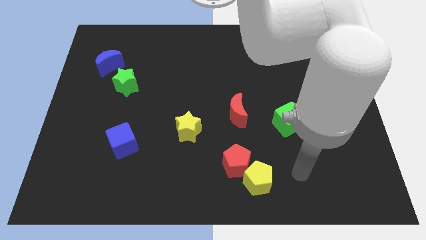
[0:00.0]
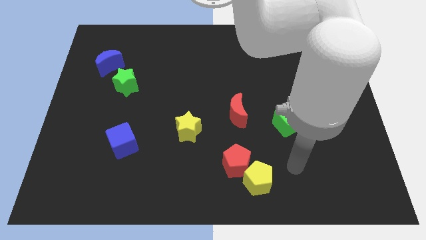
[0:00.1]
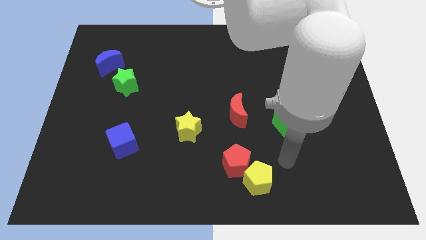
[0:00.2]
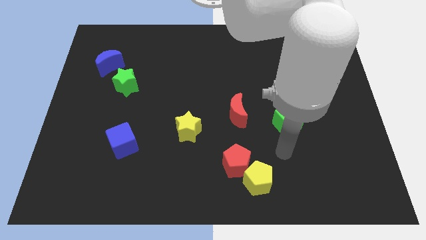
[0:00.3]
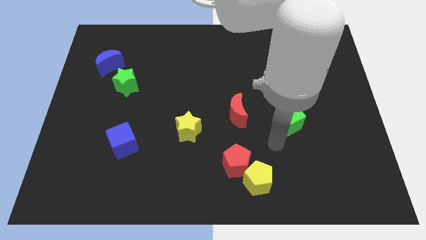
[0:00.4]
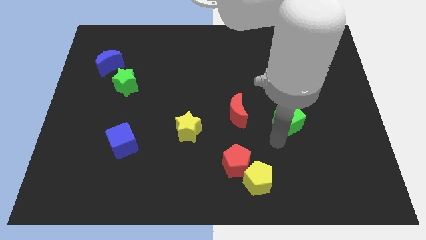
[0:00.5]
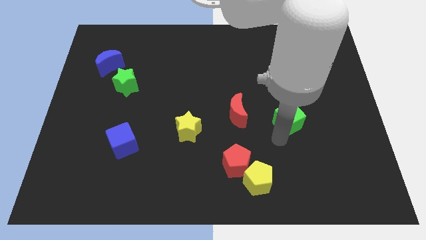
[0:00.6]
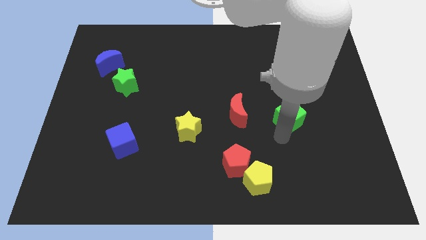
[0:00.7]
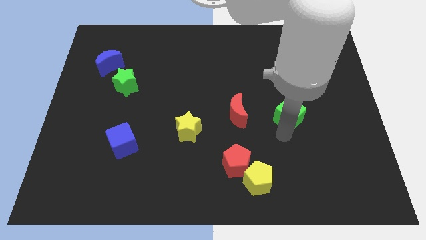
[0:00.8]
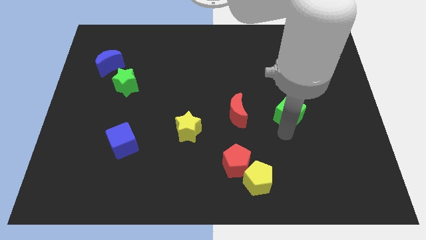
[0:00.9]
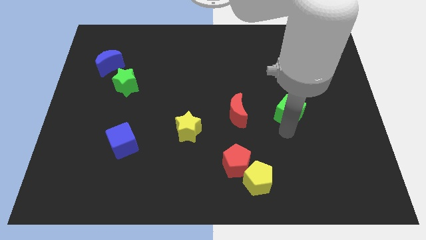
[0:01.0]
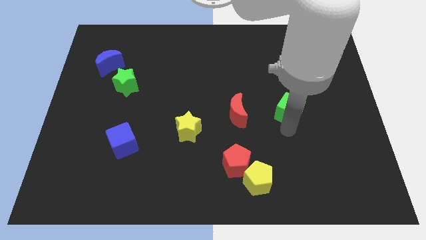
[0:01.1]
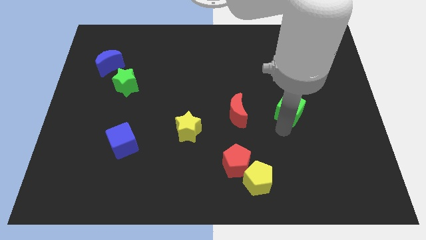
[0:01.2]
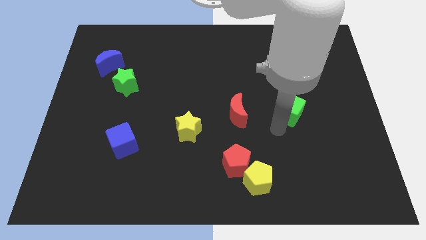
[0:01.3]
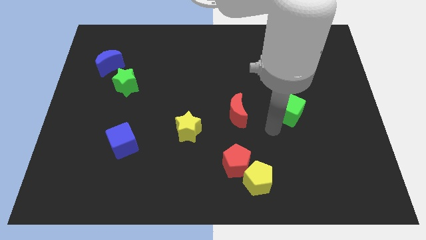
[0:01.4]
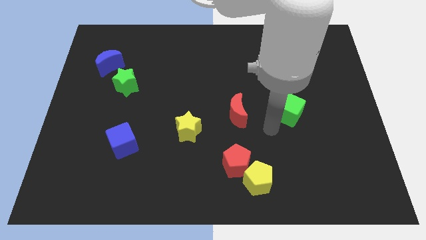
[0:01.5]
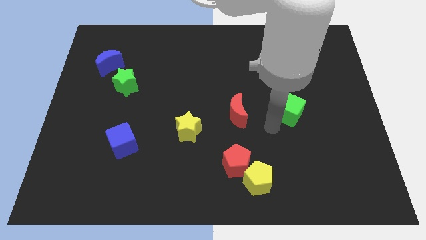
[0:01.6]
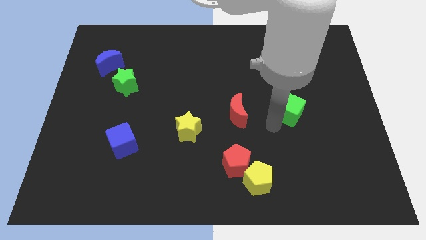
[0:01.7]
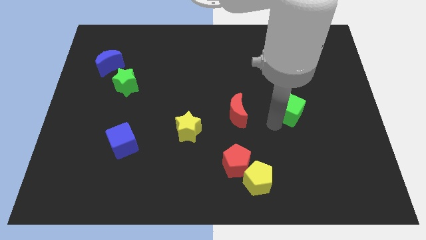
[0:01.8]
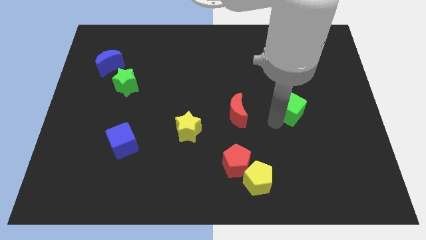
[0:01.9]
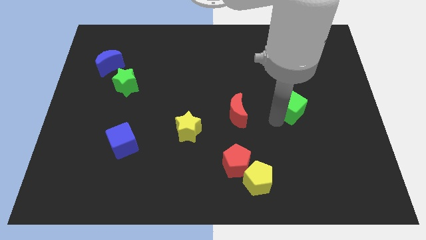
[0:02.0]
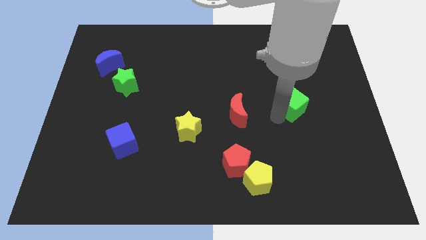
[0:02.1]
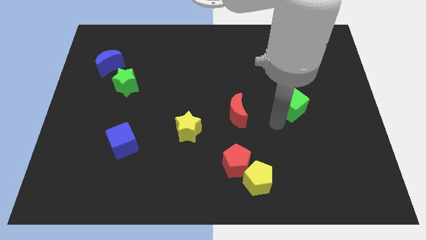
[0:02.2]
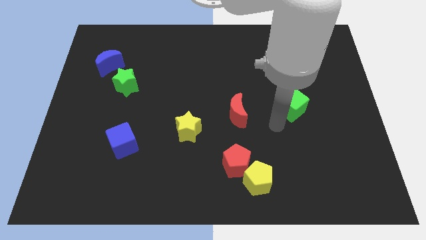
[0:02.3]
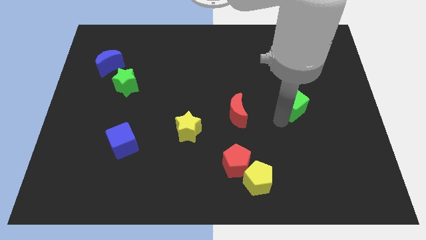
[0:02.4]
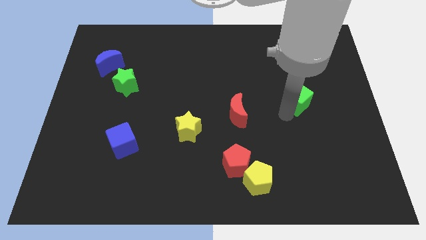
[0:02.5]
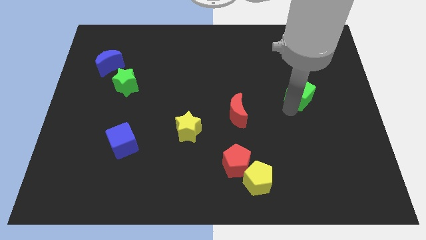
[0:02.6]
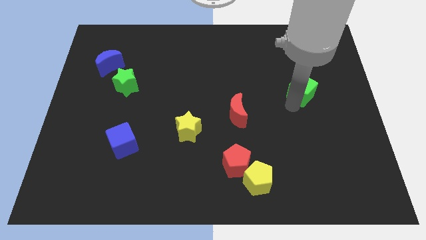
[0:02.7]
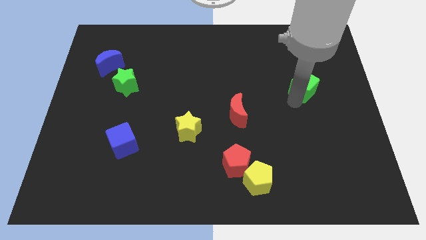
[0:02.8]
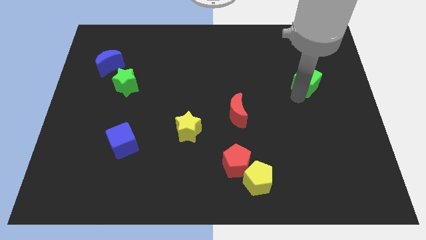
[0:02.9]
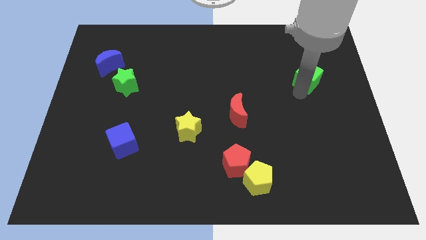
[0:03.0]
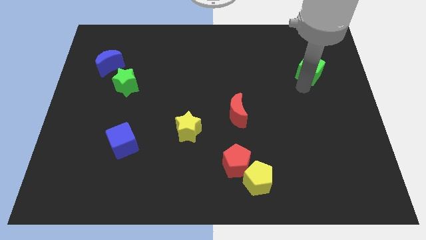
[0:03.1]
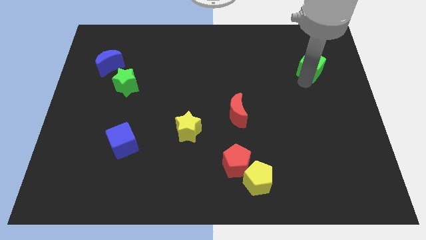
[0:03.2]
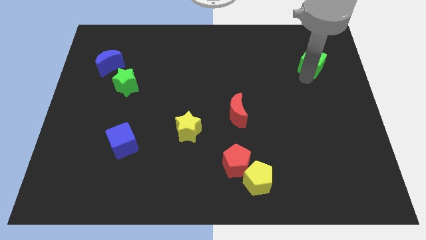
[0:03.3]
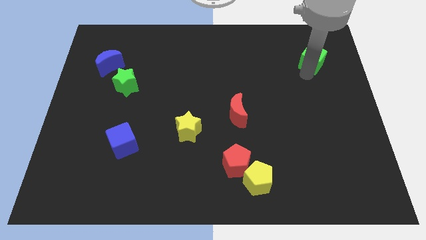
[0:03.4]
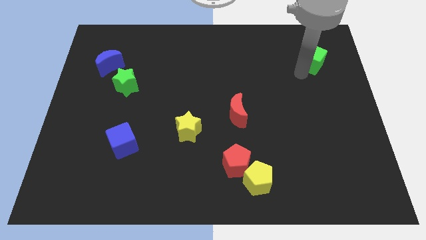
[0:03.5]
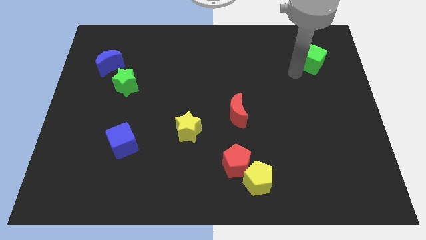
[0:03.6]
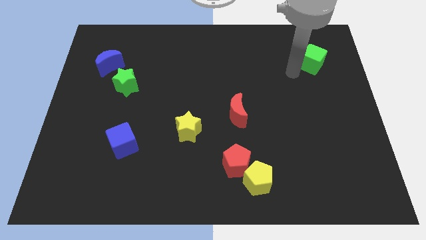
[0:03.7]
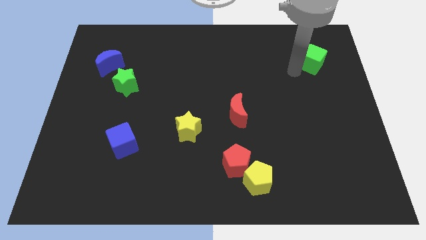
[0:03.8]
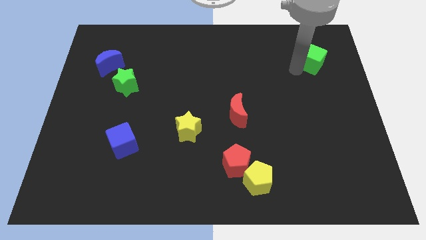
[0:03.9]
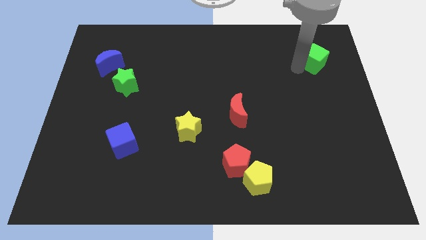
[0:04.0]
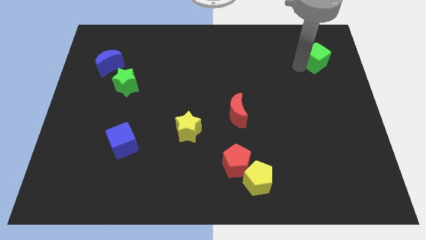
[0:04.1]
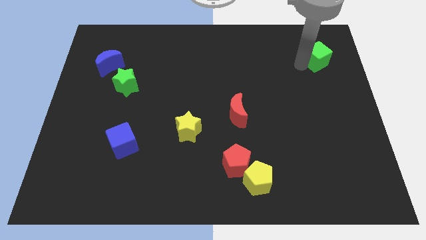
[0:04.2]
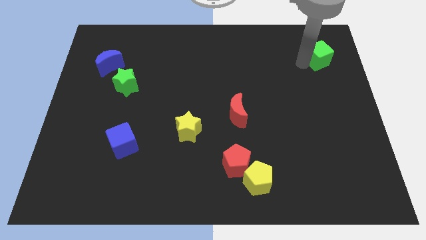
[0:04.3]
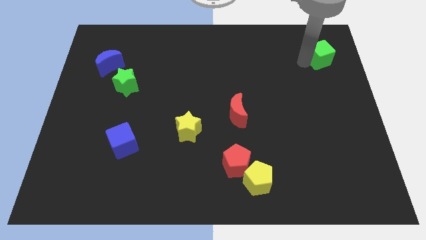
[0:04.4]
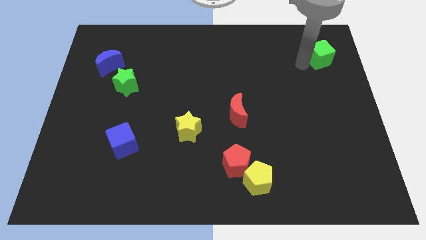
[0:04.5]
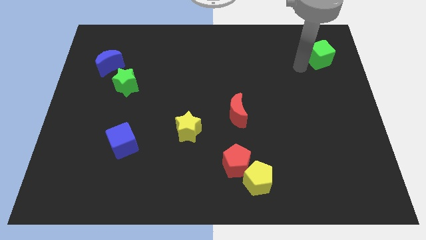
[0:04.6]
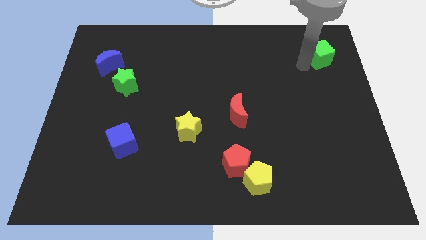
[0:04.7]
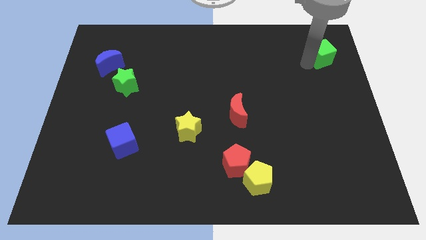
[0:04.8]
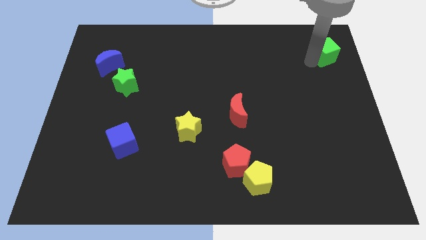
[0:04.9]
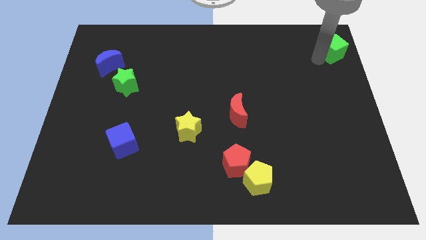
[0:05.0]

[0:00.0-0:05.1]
move the green cube to the top right

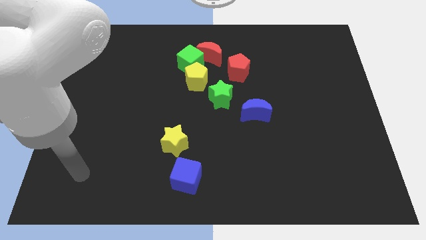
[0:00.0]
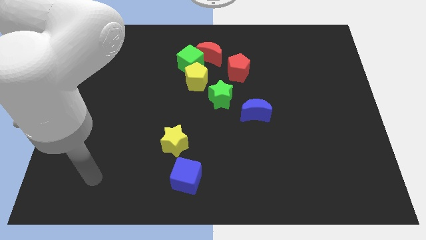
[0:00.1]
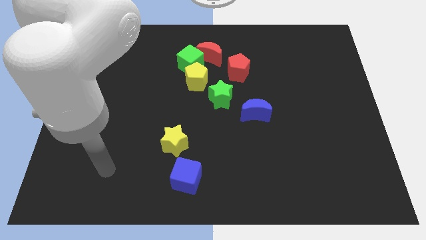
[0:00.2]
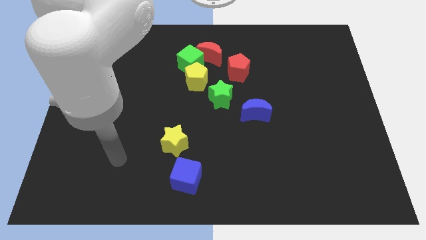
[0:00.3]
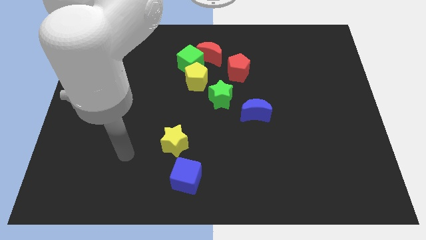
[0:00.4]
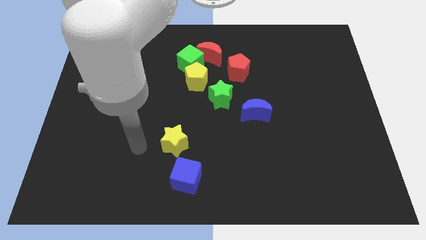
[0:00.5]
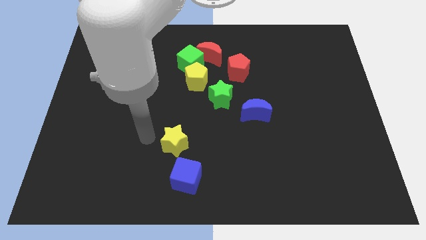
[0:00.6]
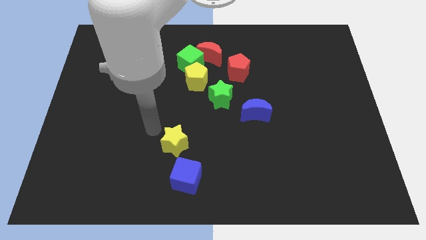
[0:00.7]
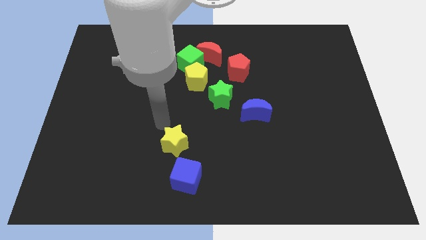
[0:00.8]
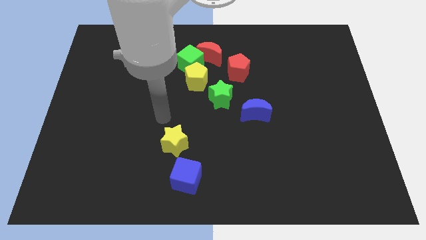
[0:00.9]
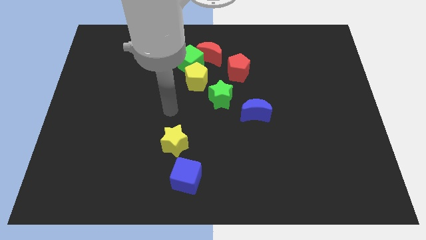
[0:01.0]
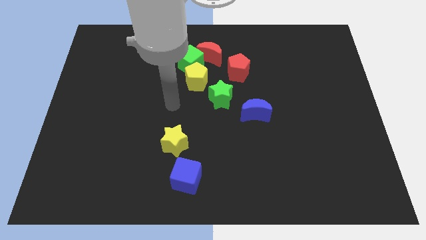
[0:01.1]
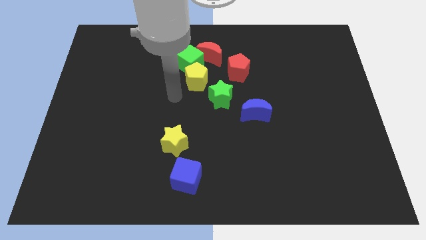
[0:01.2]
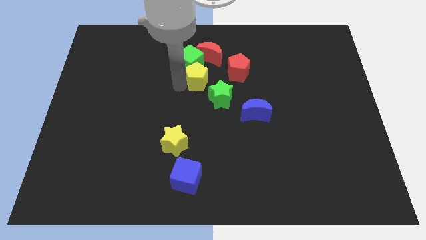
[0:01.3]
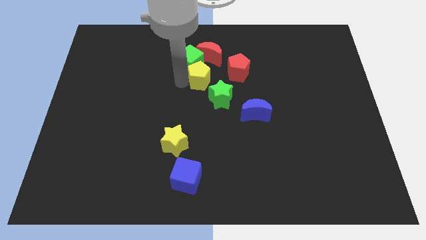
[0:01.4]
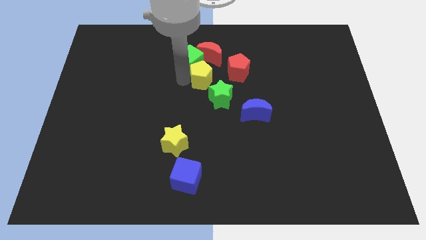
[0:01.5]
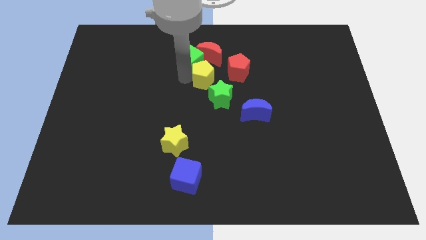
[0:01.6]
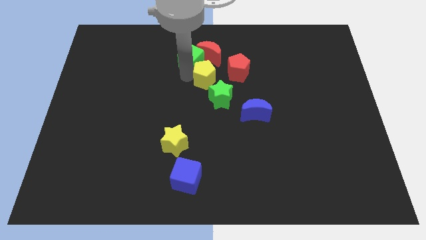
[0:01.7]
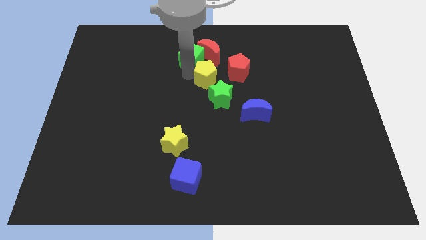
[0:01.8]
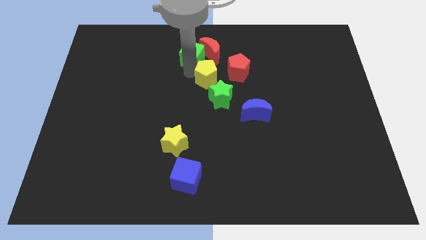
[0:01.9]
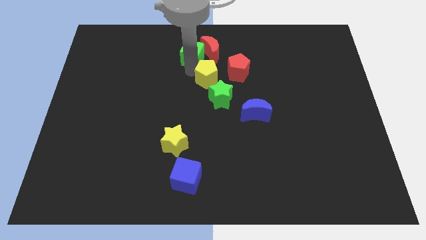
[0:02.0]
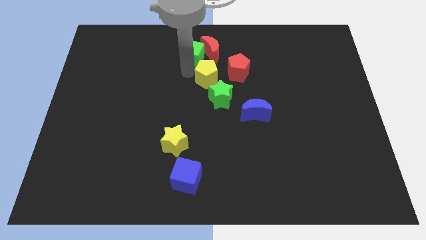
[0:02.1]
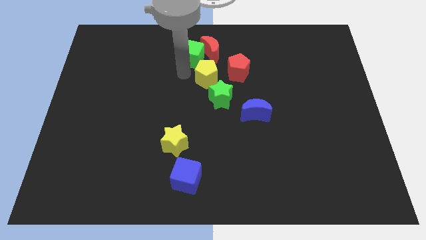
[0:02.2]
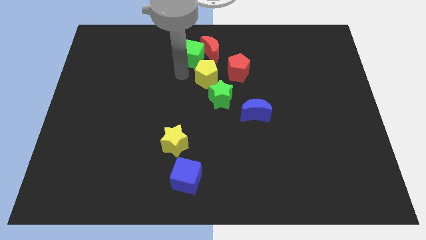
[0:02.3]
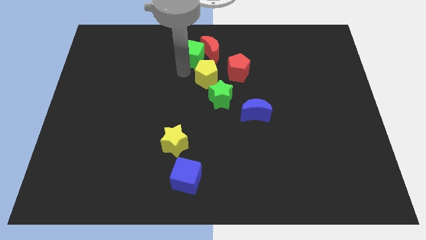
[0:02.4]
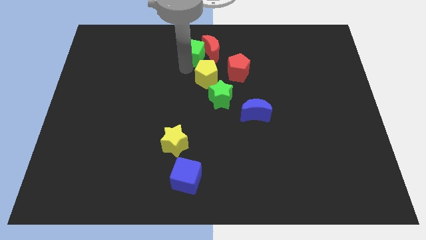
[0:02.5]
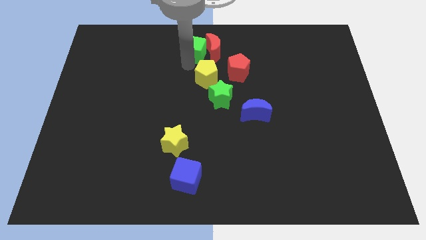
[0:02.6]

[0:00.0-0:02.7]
slide the green cube to the towards your base

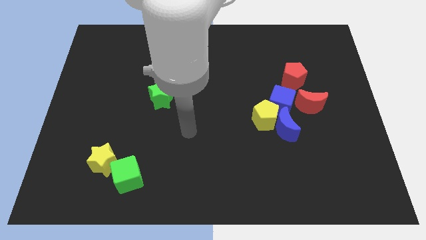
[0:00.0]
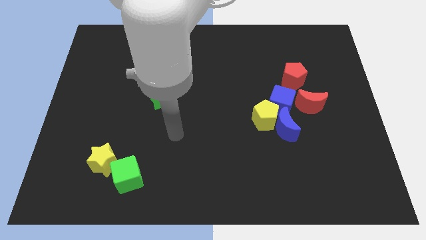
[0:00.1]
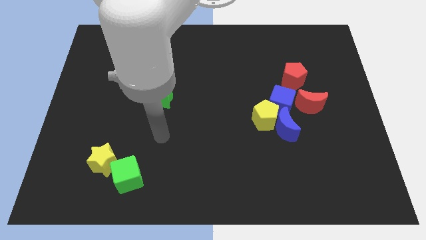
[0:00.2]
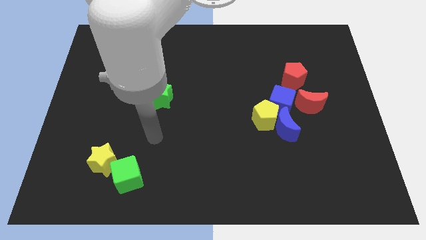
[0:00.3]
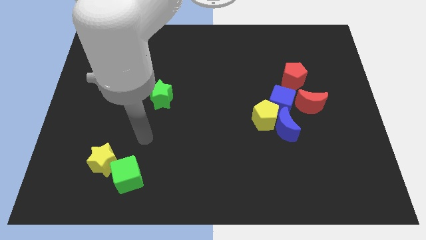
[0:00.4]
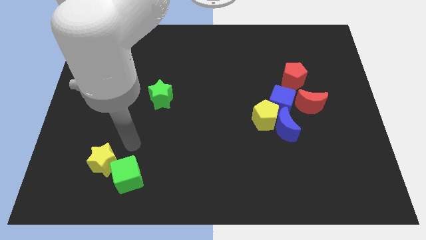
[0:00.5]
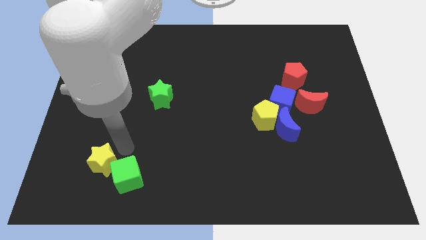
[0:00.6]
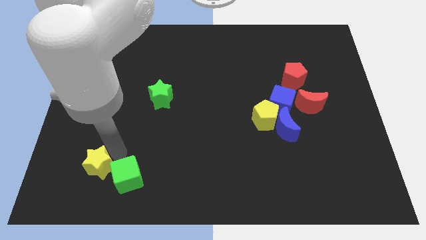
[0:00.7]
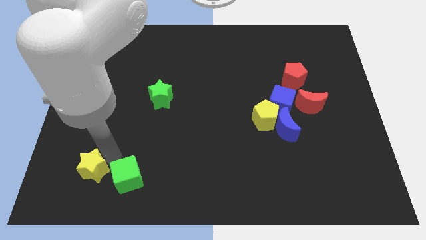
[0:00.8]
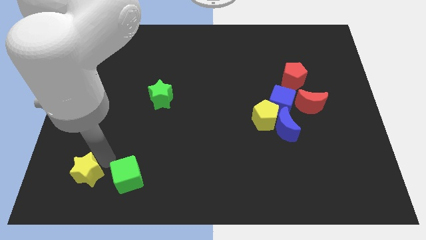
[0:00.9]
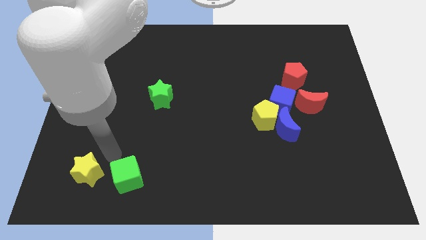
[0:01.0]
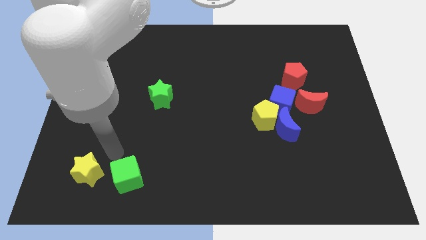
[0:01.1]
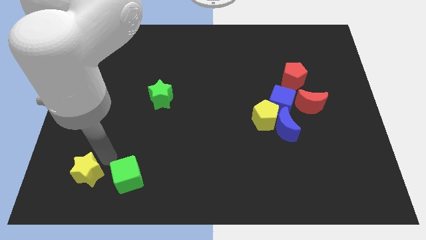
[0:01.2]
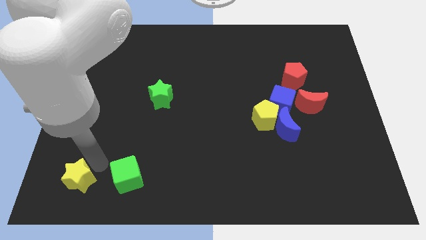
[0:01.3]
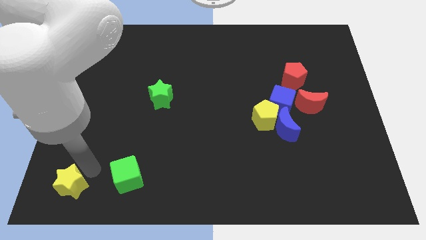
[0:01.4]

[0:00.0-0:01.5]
put the yellow star to the bottom left corner
